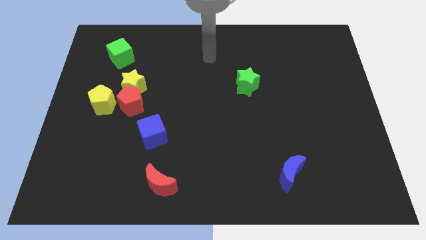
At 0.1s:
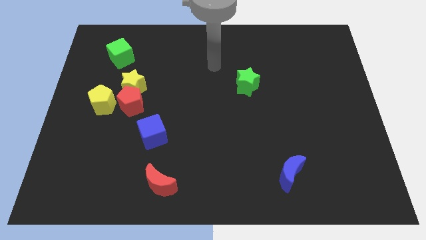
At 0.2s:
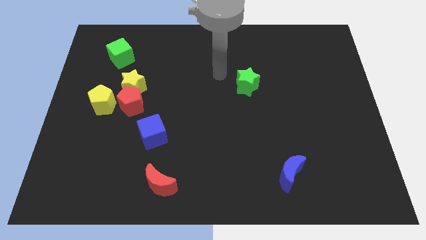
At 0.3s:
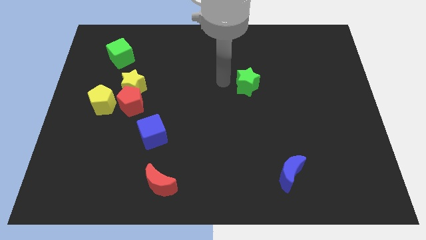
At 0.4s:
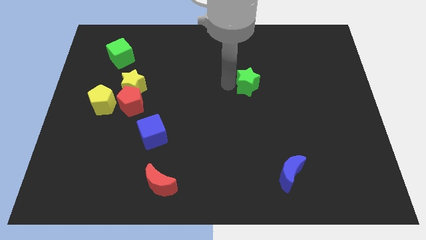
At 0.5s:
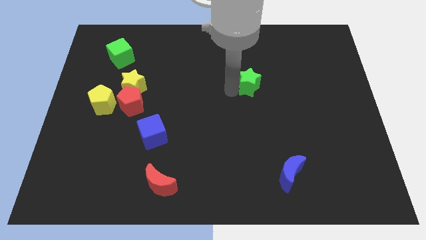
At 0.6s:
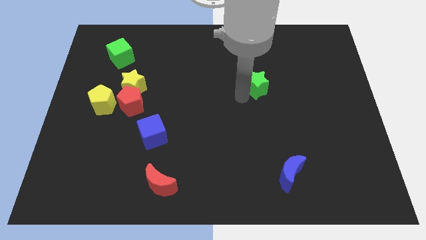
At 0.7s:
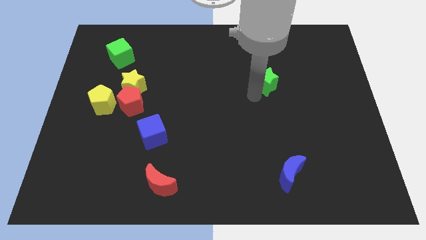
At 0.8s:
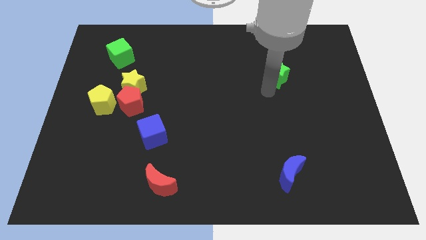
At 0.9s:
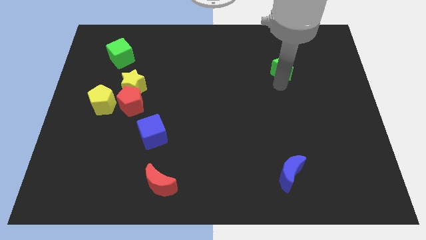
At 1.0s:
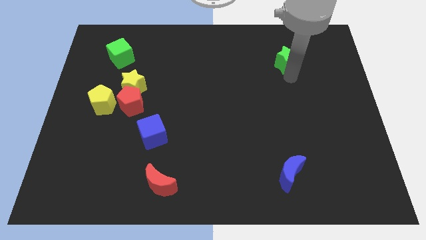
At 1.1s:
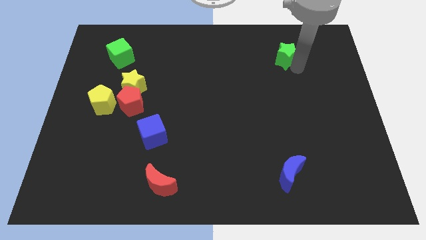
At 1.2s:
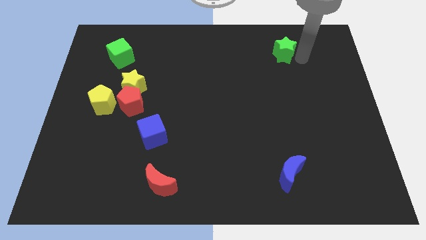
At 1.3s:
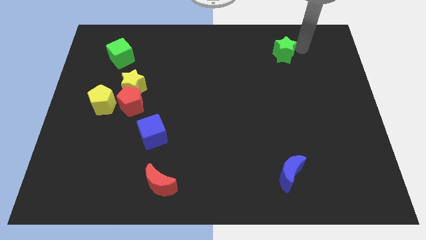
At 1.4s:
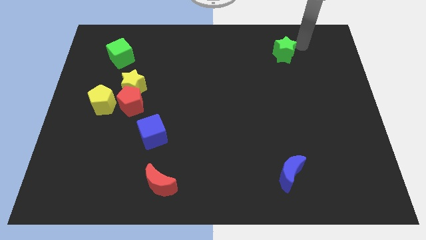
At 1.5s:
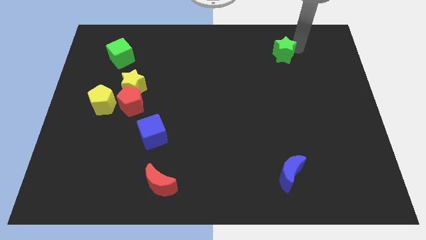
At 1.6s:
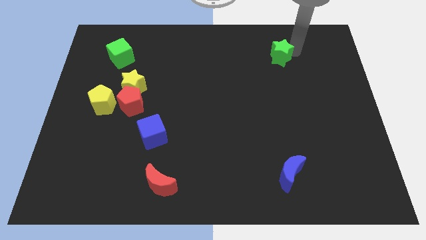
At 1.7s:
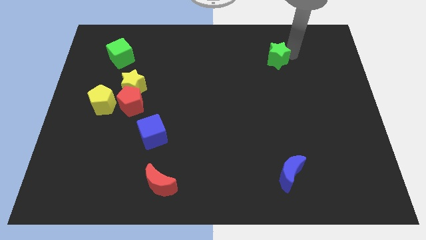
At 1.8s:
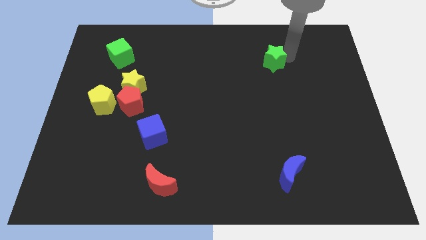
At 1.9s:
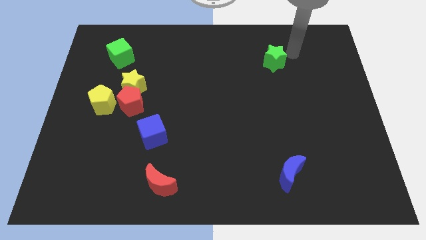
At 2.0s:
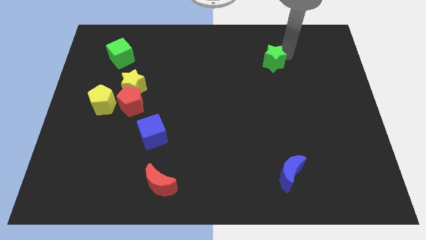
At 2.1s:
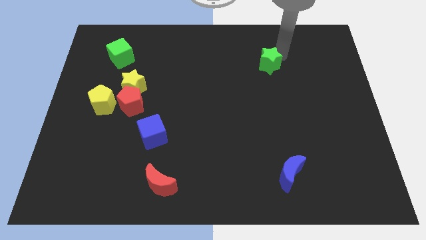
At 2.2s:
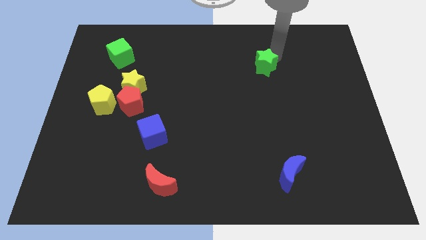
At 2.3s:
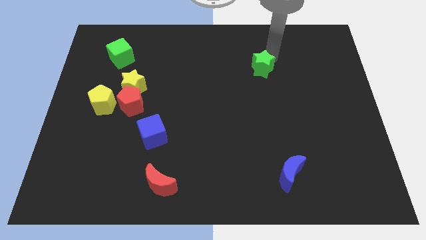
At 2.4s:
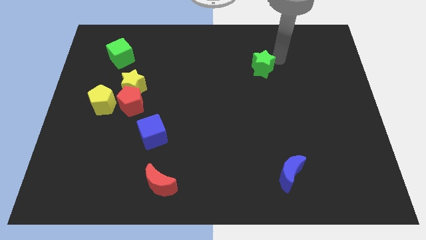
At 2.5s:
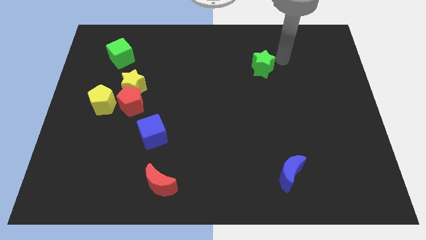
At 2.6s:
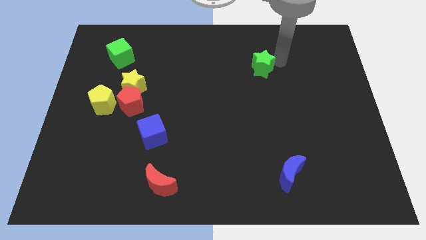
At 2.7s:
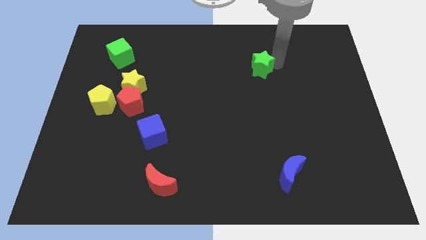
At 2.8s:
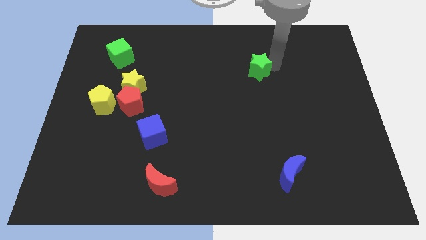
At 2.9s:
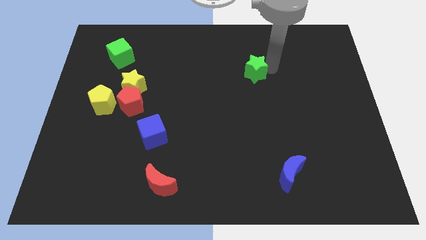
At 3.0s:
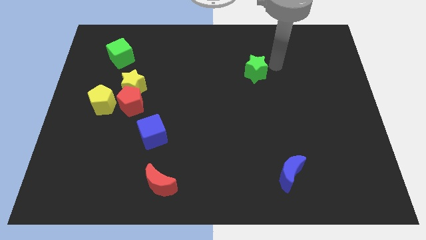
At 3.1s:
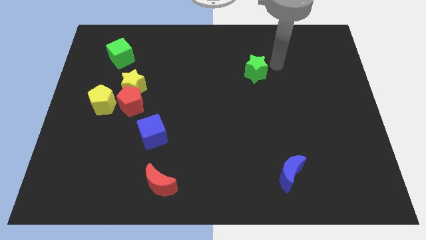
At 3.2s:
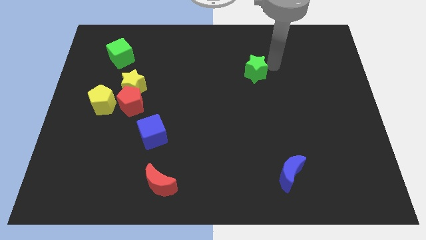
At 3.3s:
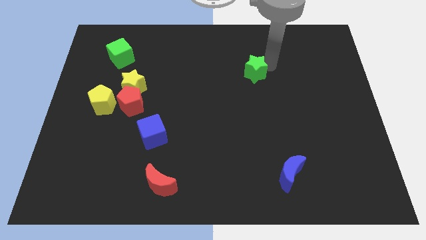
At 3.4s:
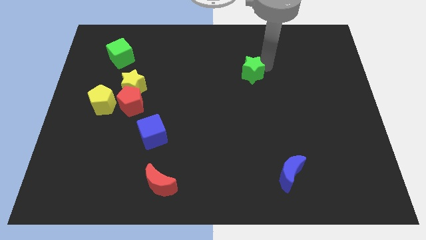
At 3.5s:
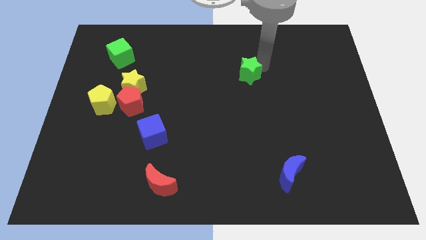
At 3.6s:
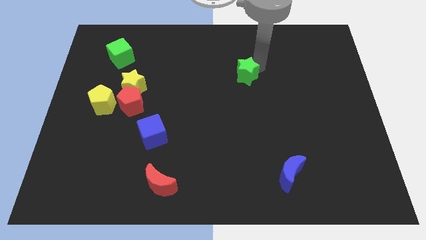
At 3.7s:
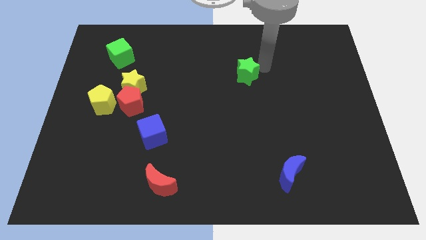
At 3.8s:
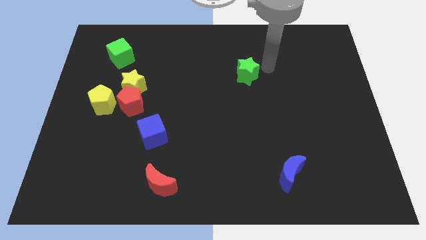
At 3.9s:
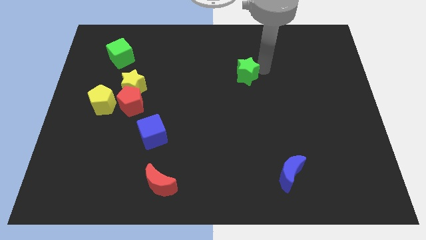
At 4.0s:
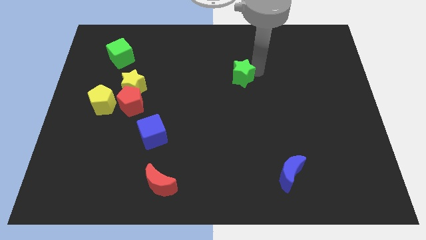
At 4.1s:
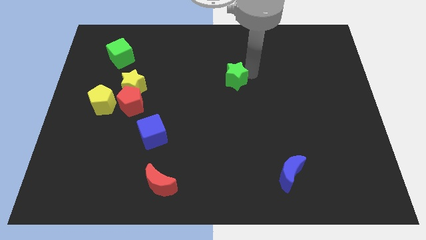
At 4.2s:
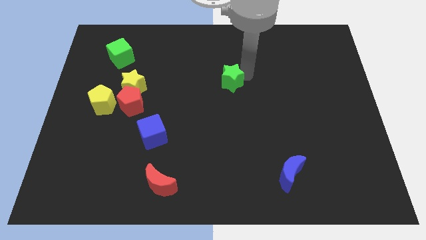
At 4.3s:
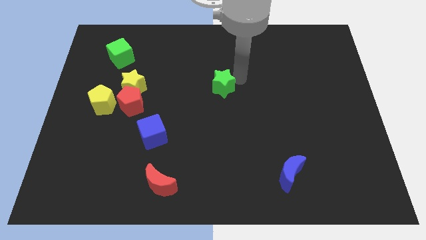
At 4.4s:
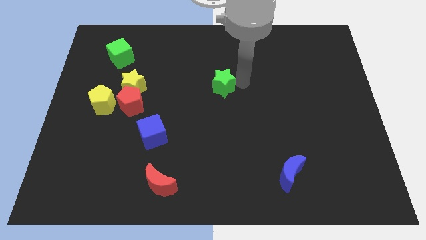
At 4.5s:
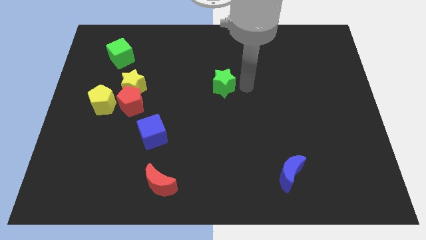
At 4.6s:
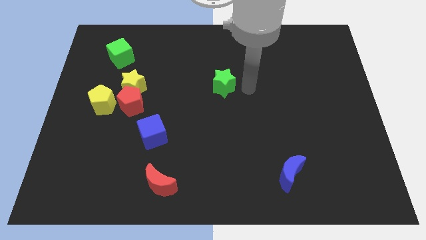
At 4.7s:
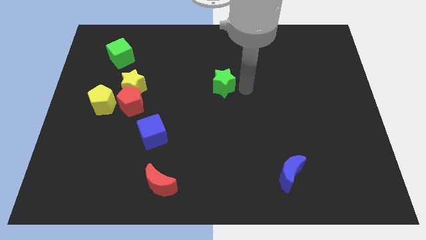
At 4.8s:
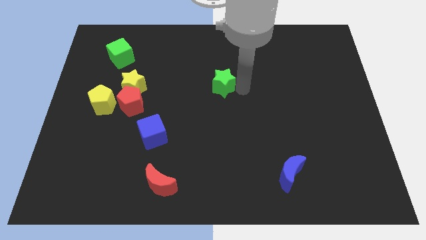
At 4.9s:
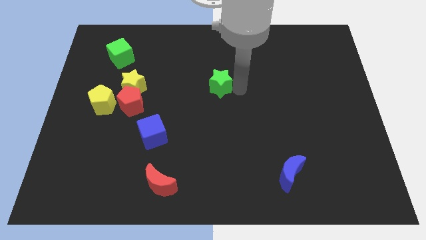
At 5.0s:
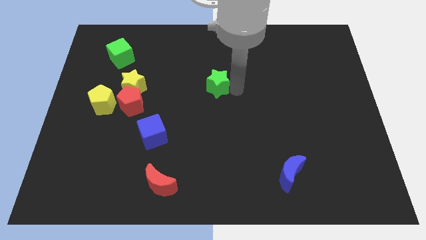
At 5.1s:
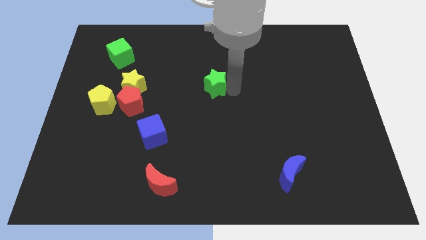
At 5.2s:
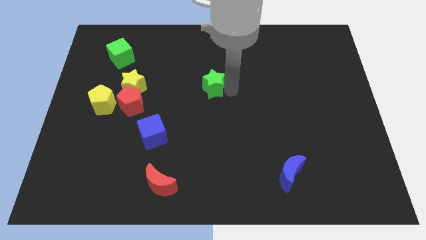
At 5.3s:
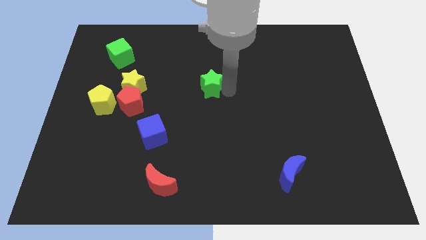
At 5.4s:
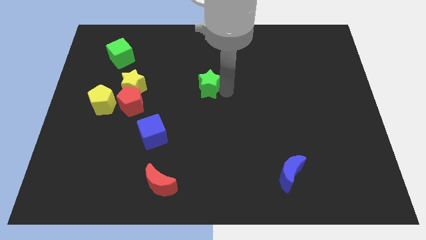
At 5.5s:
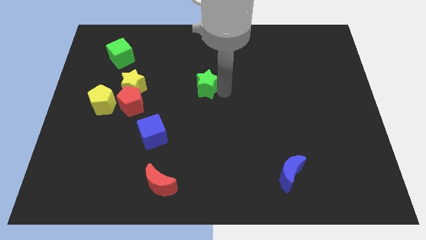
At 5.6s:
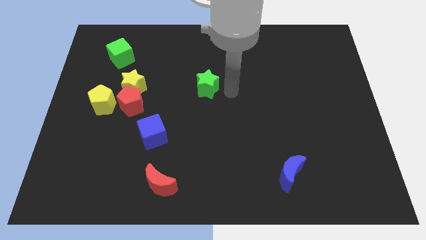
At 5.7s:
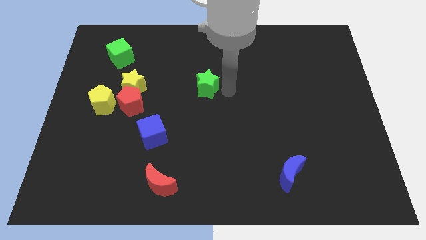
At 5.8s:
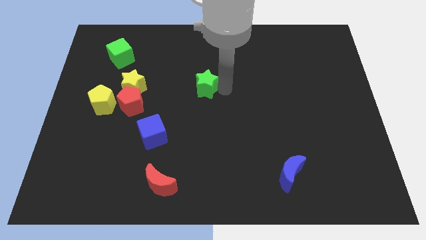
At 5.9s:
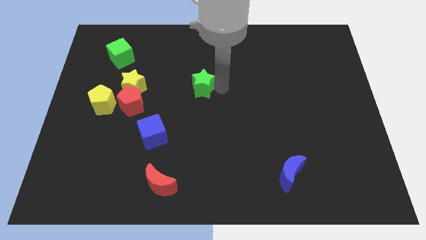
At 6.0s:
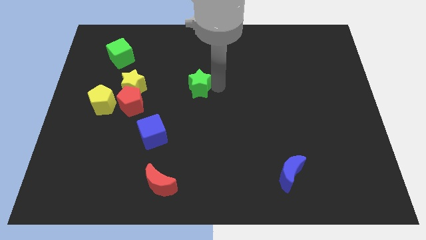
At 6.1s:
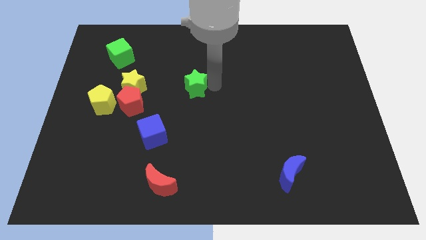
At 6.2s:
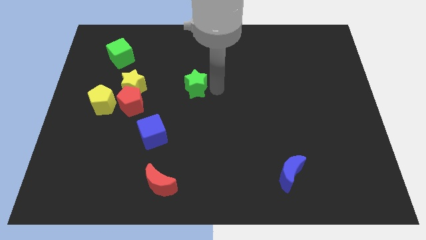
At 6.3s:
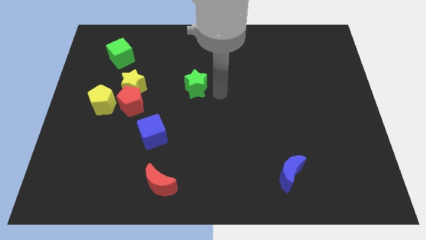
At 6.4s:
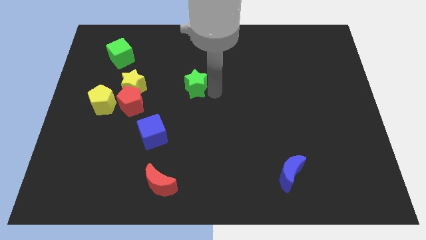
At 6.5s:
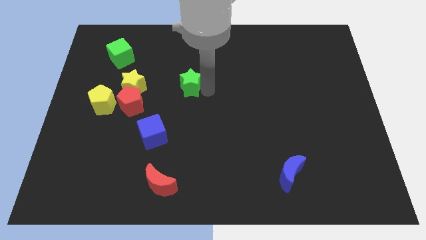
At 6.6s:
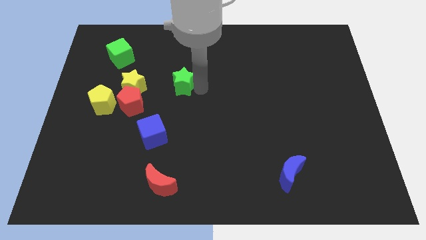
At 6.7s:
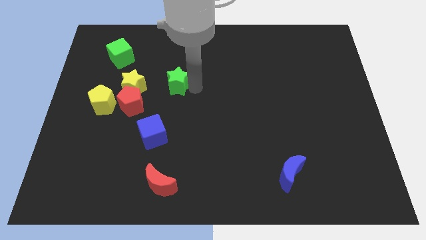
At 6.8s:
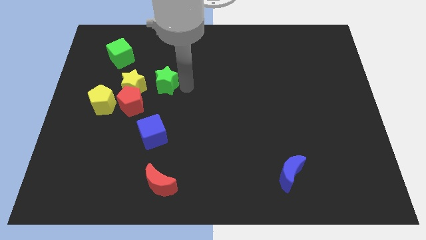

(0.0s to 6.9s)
move the green star left

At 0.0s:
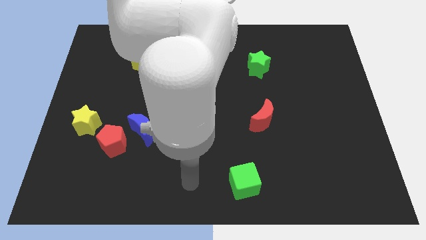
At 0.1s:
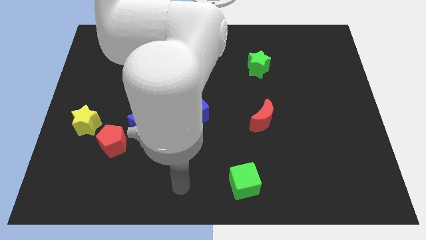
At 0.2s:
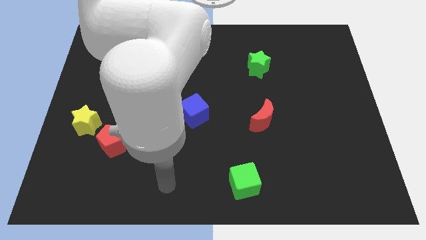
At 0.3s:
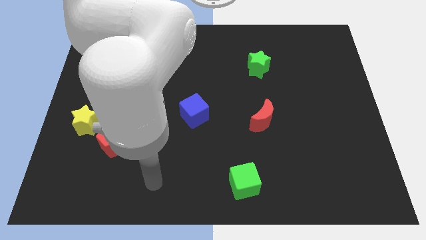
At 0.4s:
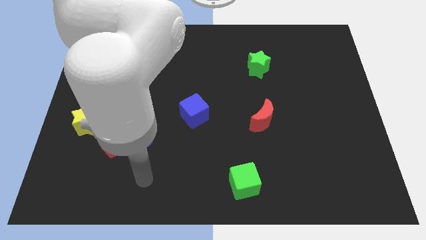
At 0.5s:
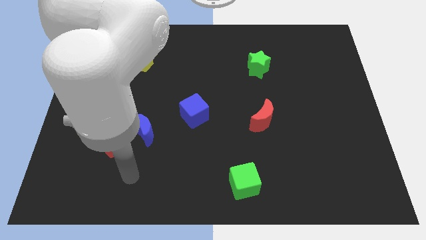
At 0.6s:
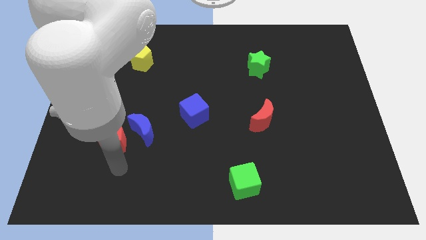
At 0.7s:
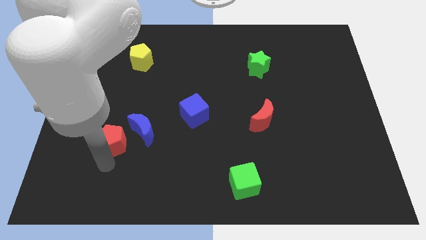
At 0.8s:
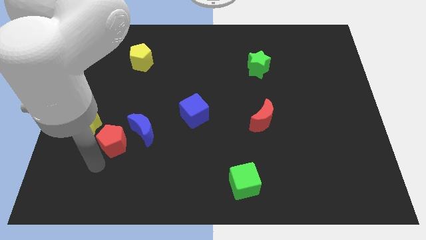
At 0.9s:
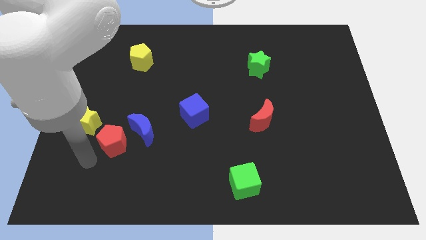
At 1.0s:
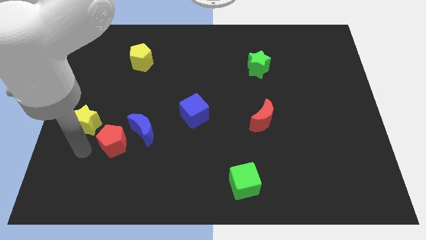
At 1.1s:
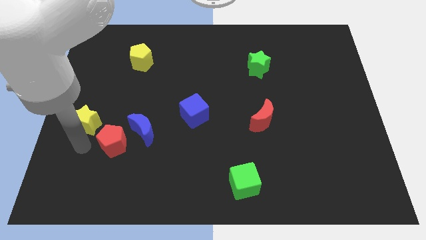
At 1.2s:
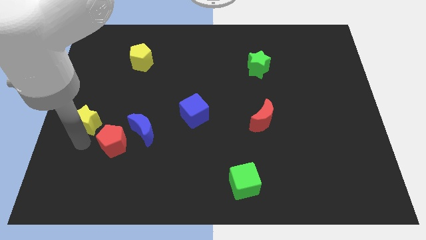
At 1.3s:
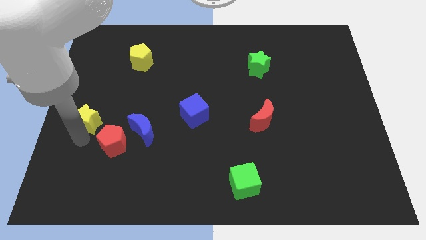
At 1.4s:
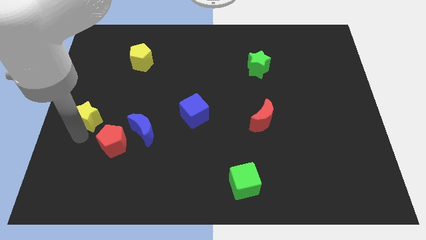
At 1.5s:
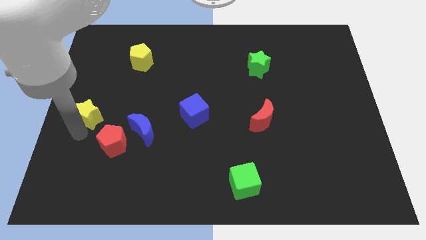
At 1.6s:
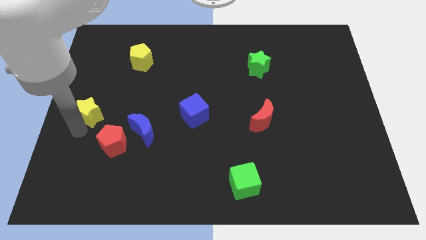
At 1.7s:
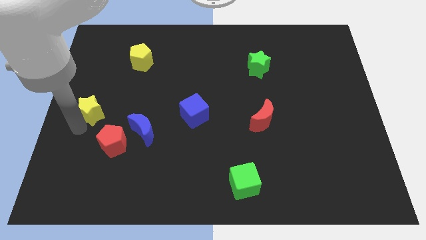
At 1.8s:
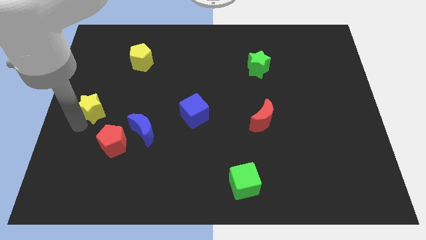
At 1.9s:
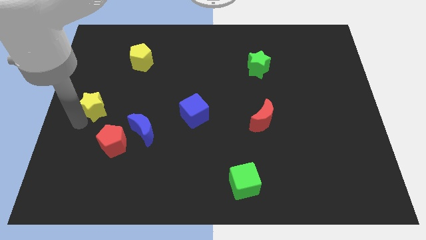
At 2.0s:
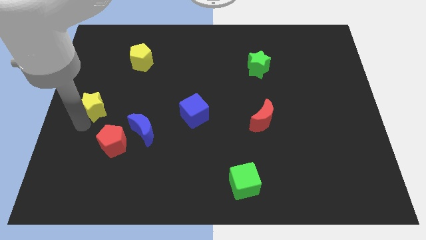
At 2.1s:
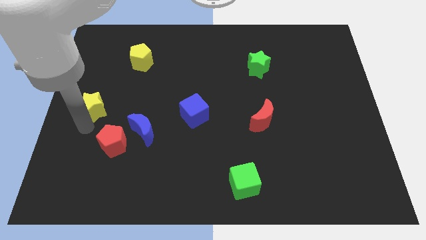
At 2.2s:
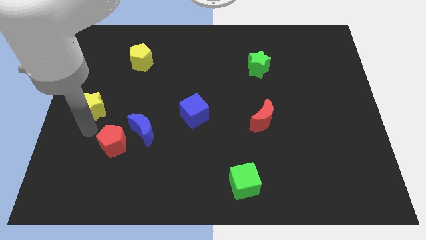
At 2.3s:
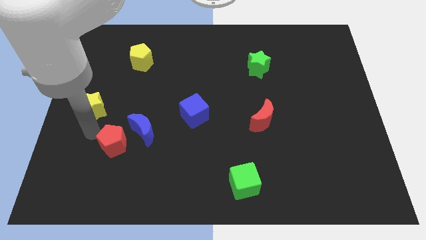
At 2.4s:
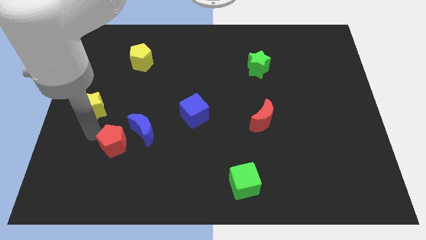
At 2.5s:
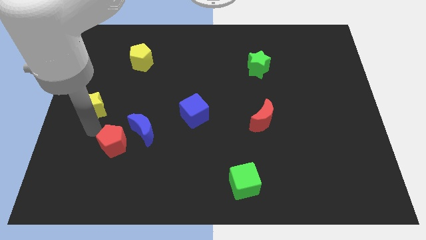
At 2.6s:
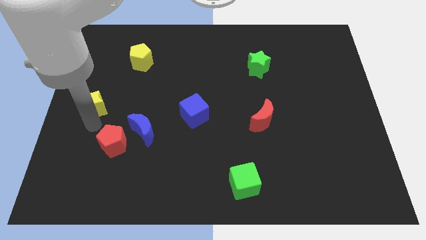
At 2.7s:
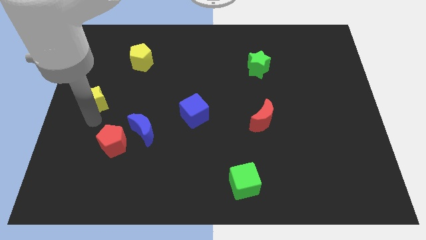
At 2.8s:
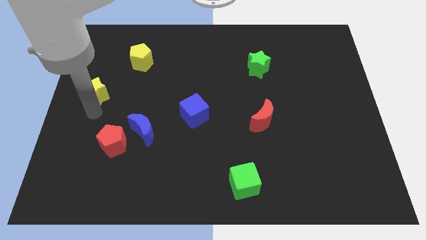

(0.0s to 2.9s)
slide the yellow star upwards a bit
